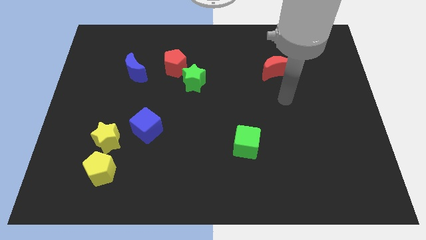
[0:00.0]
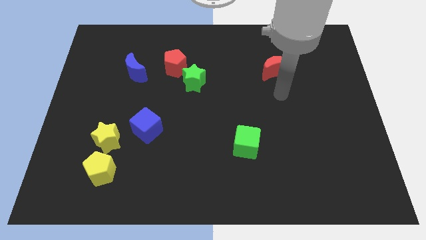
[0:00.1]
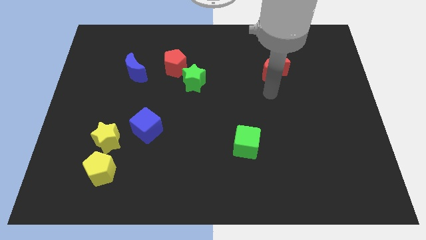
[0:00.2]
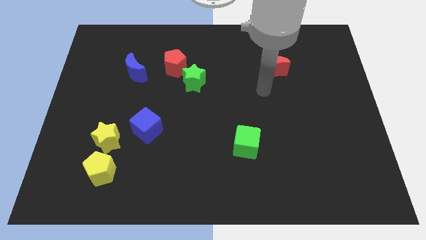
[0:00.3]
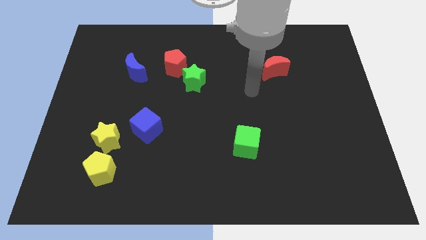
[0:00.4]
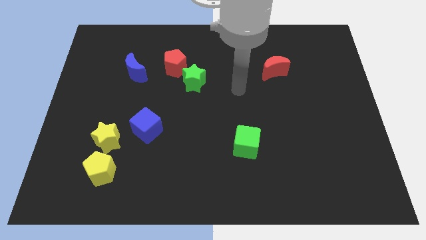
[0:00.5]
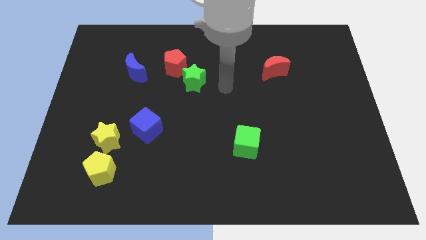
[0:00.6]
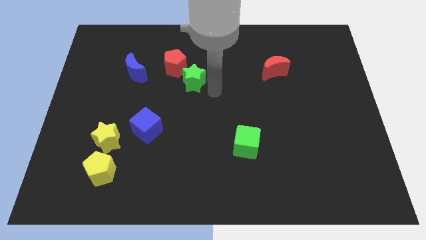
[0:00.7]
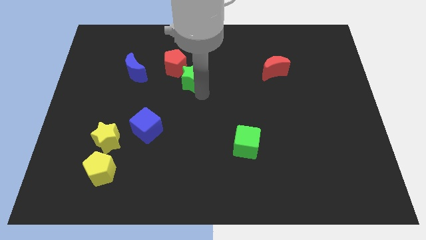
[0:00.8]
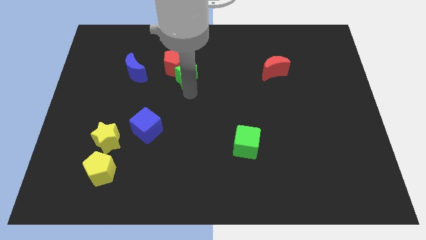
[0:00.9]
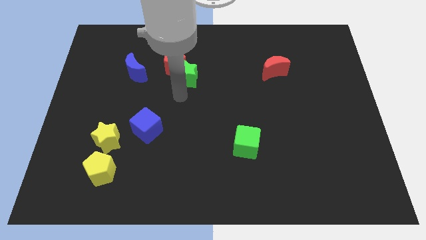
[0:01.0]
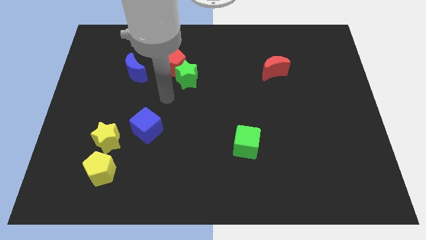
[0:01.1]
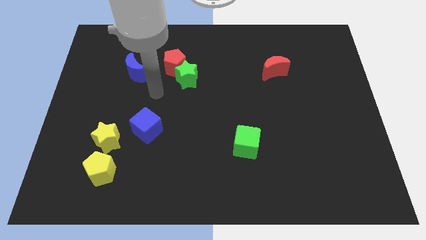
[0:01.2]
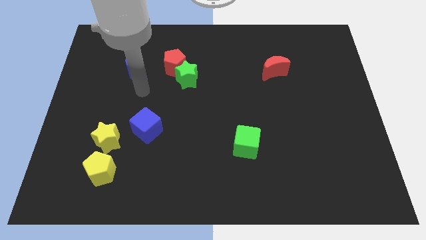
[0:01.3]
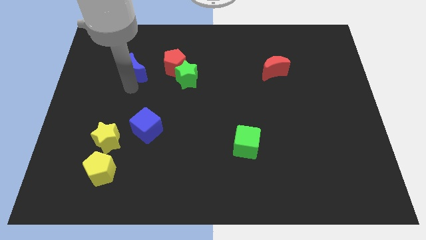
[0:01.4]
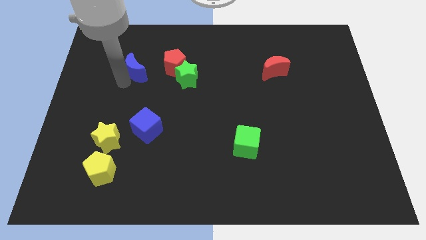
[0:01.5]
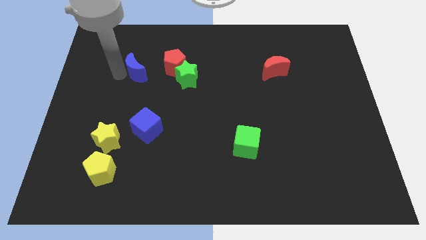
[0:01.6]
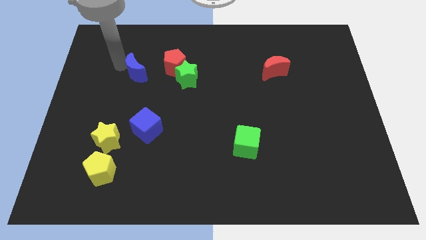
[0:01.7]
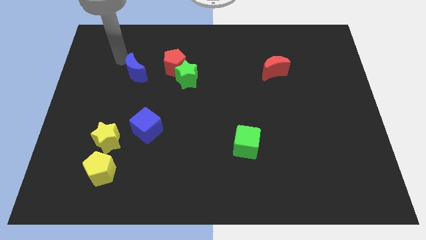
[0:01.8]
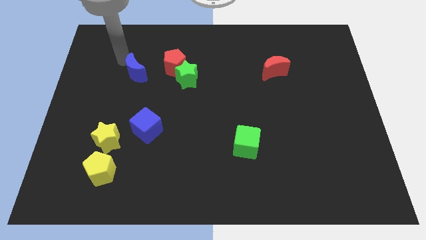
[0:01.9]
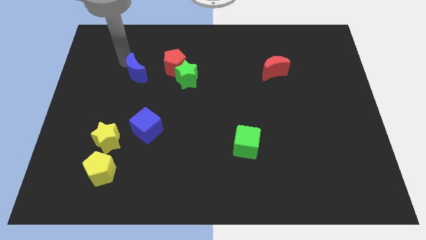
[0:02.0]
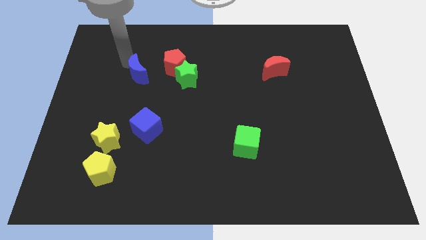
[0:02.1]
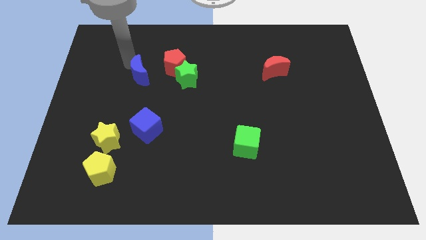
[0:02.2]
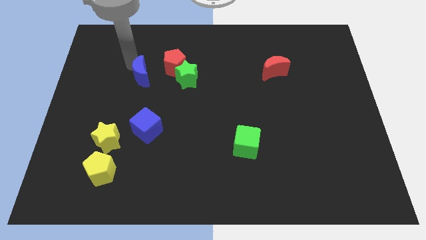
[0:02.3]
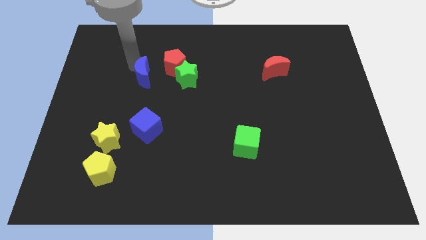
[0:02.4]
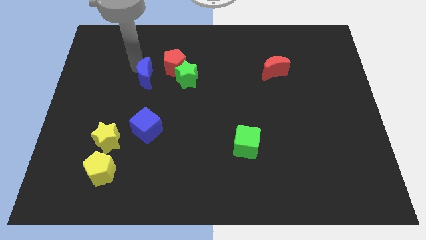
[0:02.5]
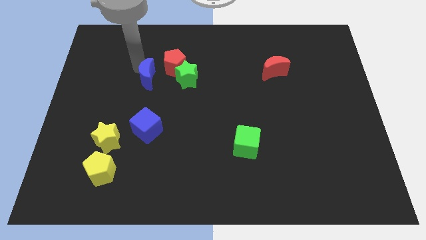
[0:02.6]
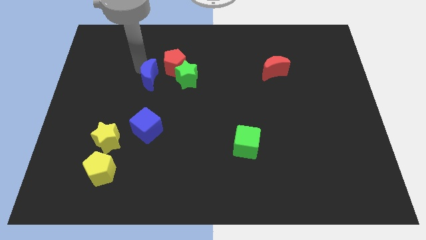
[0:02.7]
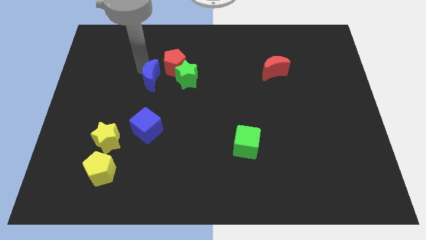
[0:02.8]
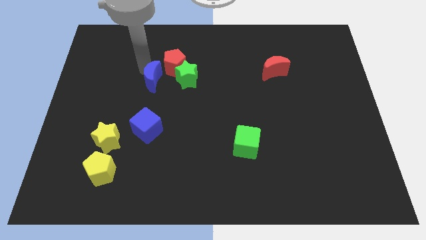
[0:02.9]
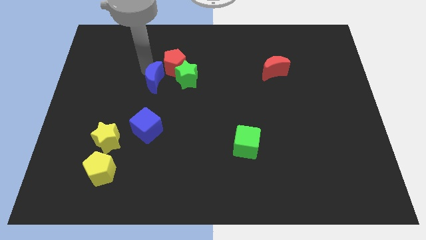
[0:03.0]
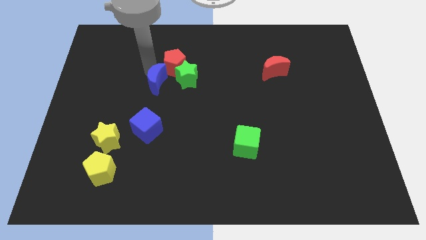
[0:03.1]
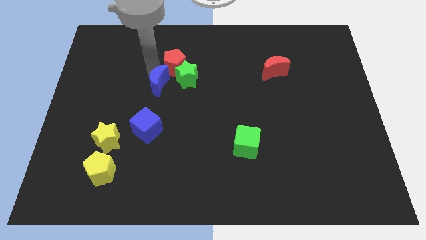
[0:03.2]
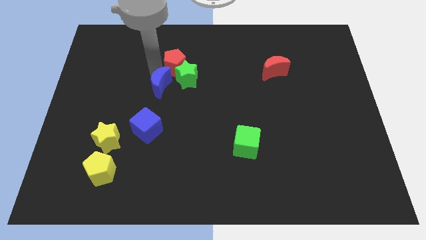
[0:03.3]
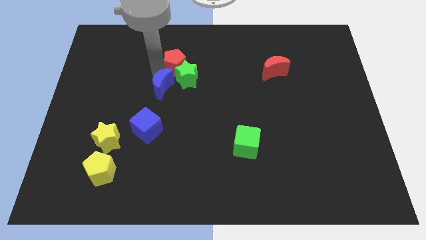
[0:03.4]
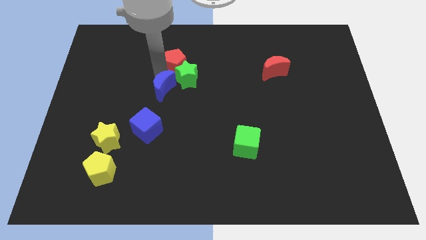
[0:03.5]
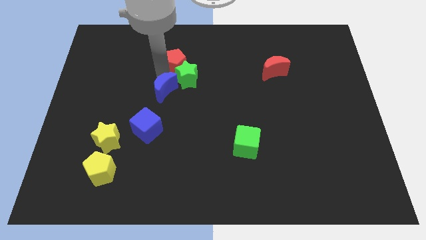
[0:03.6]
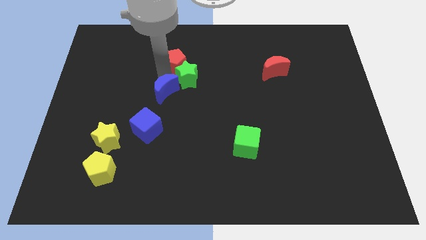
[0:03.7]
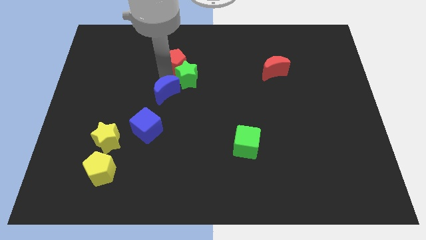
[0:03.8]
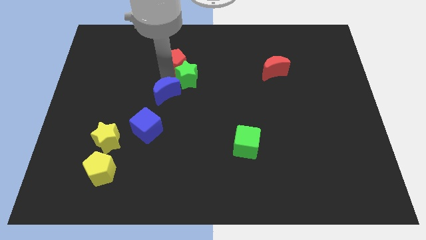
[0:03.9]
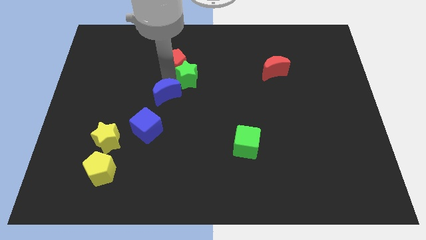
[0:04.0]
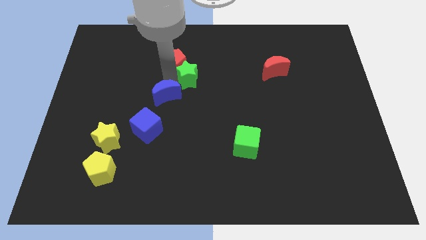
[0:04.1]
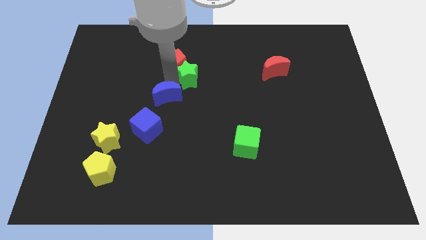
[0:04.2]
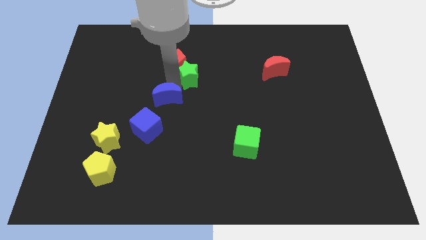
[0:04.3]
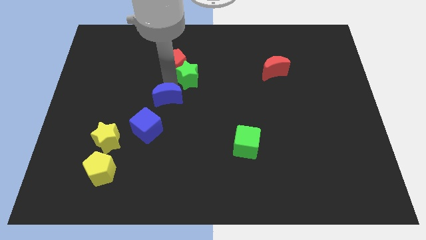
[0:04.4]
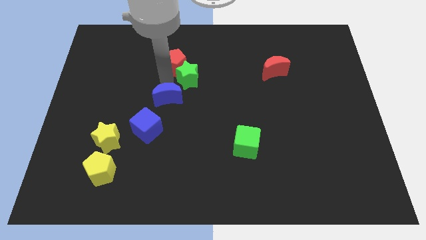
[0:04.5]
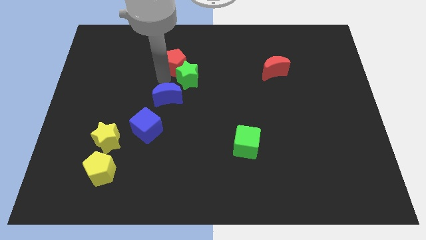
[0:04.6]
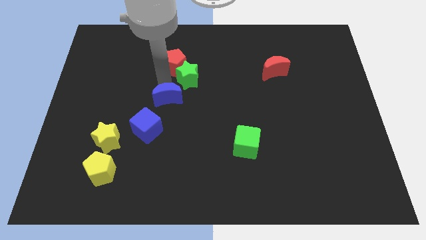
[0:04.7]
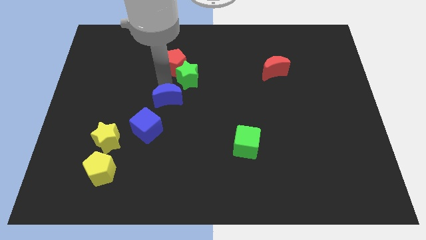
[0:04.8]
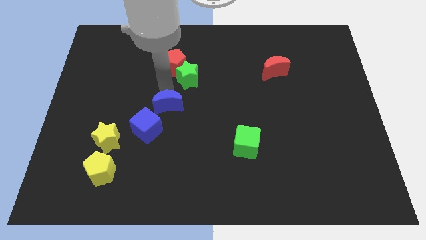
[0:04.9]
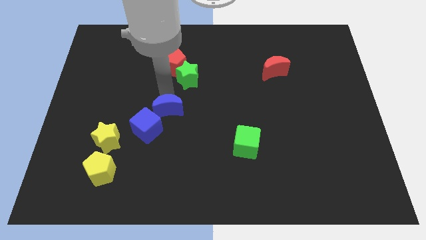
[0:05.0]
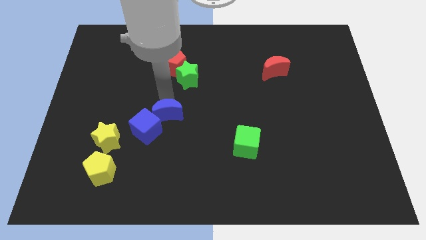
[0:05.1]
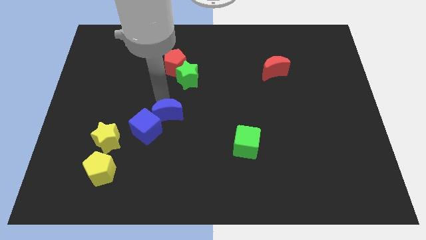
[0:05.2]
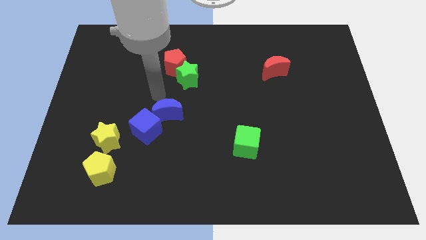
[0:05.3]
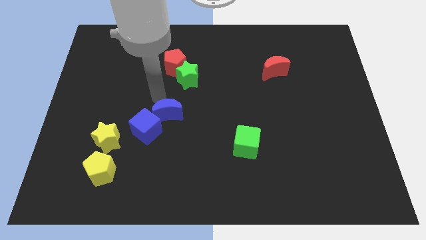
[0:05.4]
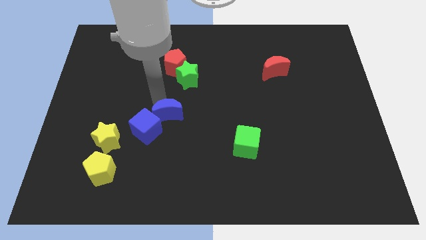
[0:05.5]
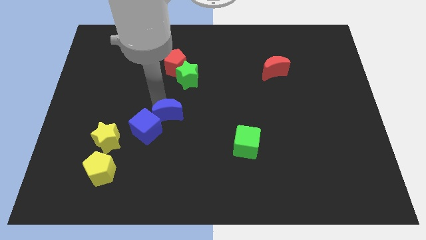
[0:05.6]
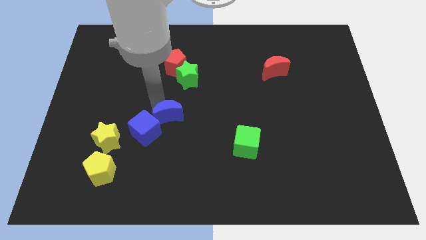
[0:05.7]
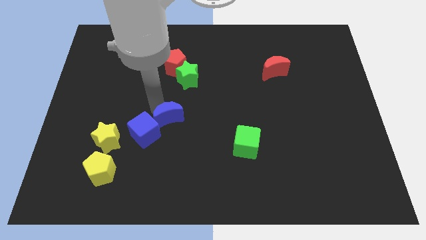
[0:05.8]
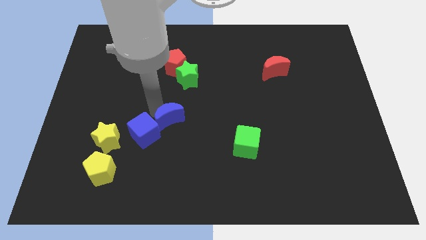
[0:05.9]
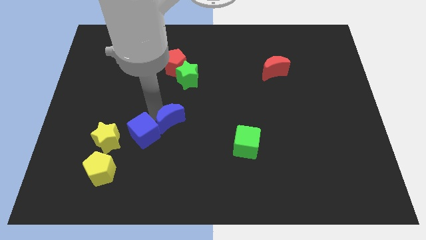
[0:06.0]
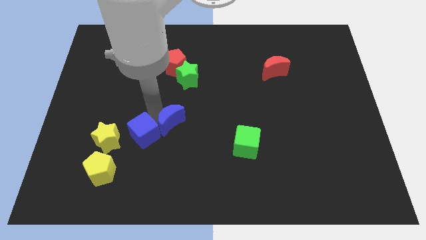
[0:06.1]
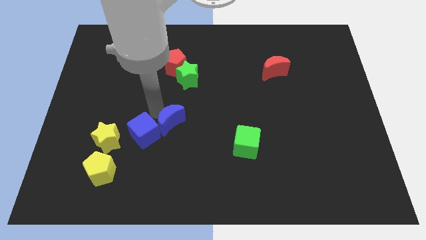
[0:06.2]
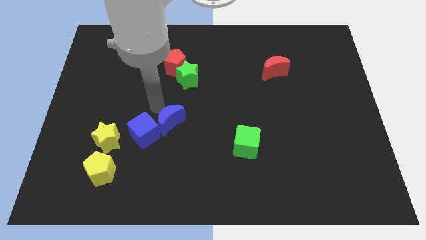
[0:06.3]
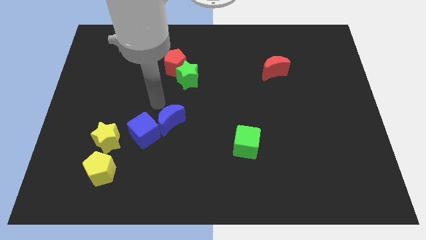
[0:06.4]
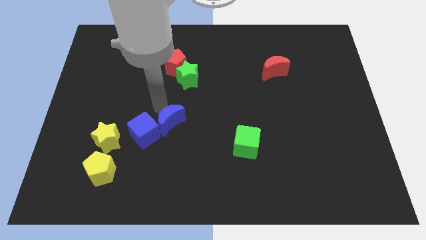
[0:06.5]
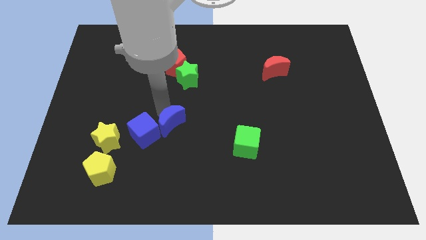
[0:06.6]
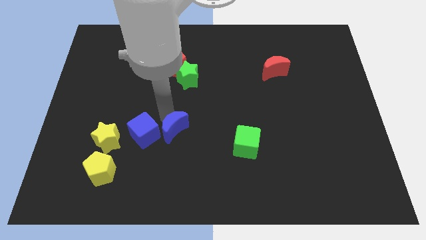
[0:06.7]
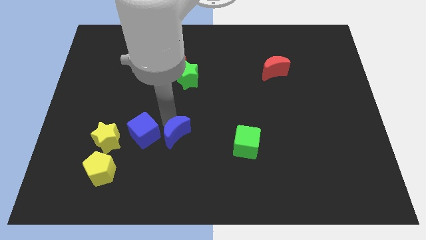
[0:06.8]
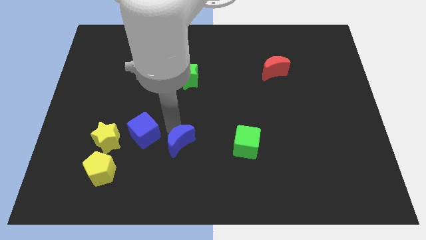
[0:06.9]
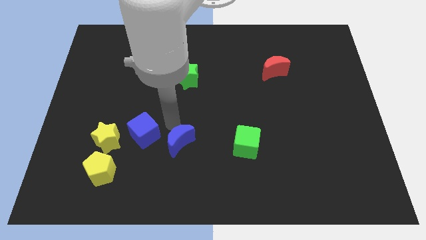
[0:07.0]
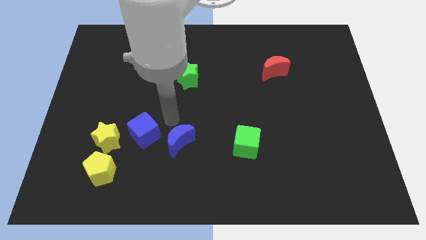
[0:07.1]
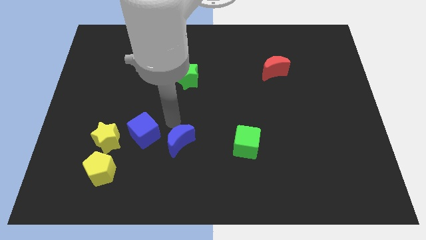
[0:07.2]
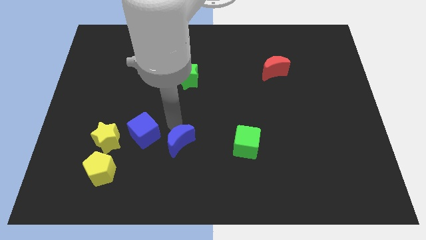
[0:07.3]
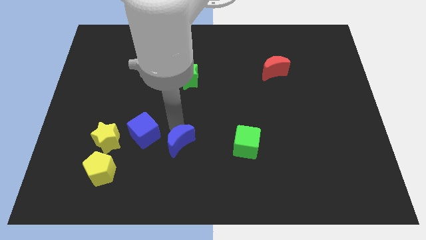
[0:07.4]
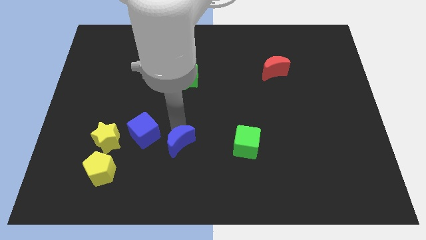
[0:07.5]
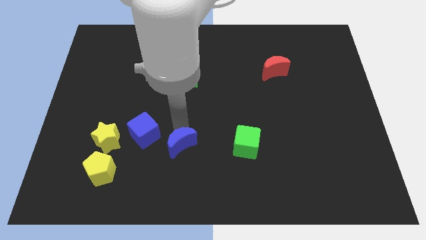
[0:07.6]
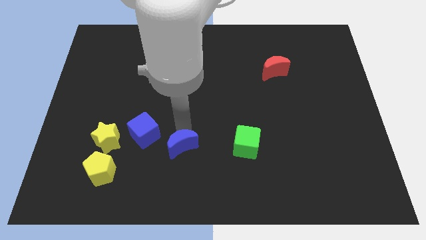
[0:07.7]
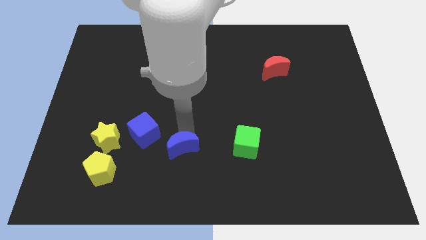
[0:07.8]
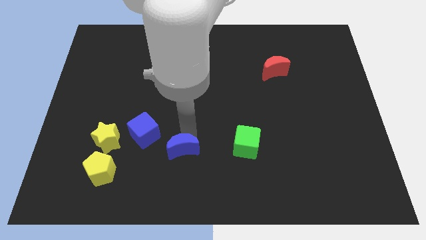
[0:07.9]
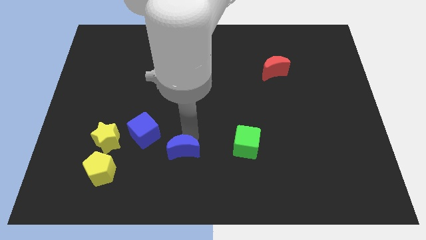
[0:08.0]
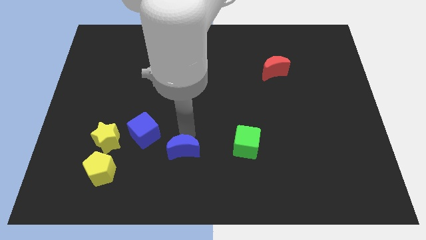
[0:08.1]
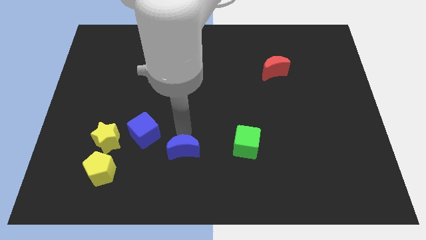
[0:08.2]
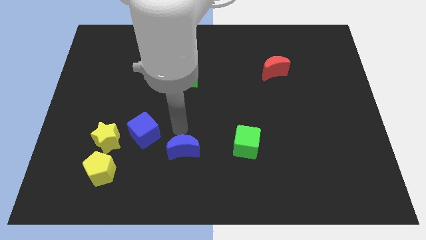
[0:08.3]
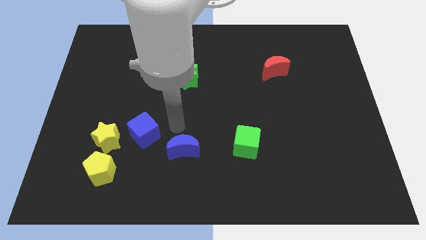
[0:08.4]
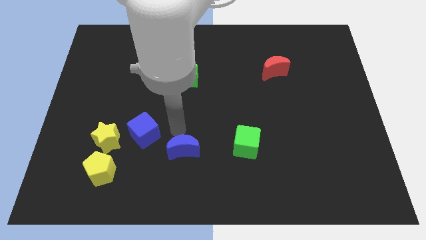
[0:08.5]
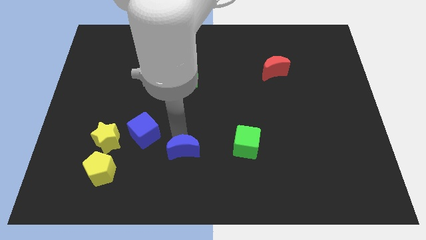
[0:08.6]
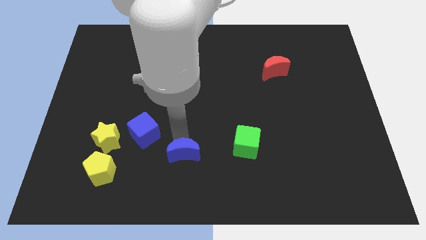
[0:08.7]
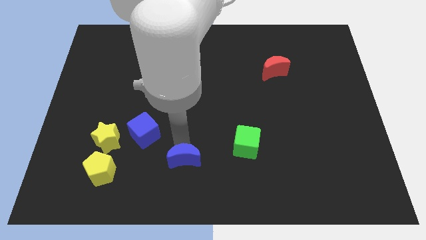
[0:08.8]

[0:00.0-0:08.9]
put the blue moon to the bottom side
